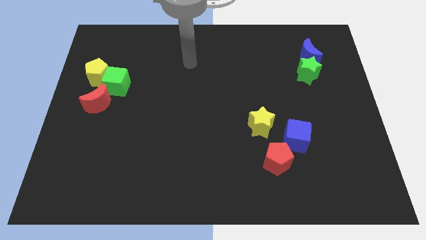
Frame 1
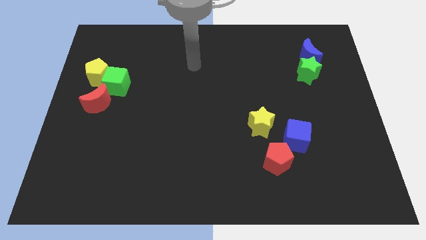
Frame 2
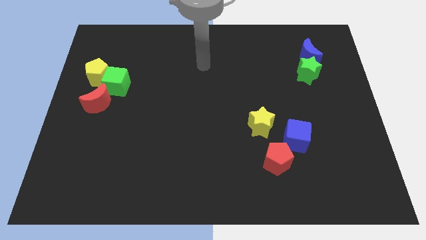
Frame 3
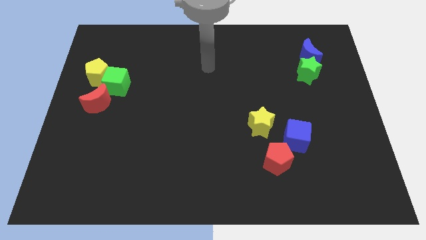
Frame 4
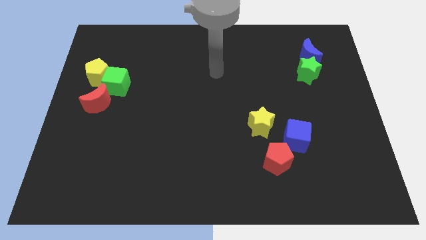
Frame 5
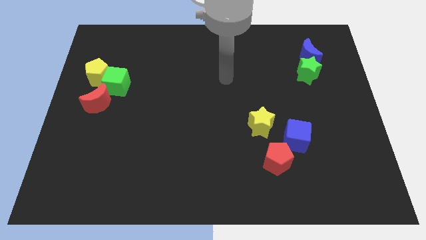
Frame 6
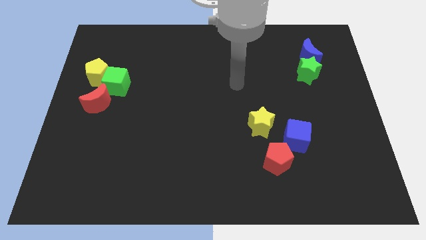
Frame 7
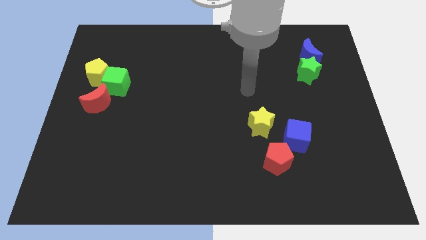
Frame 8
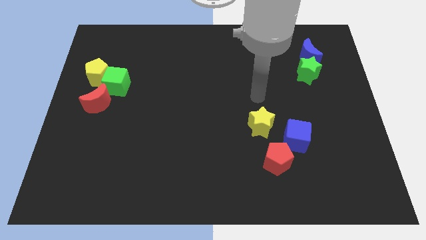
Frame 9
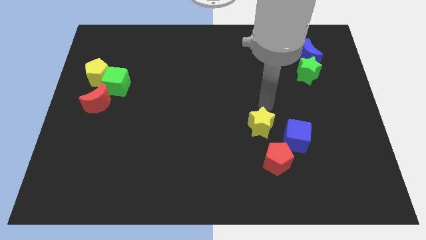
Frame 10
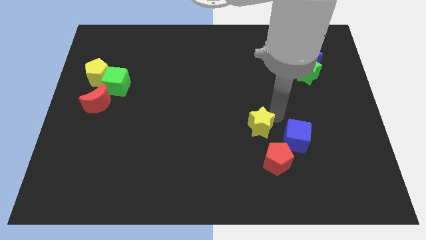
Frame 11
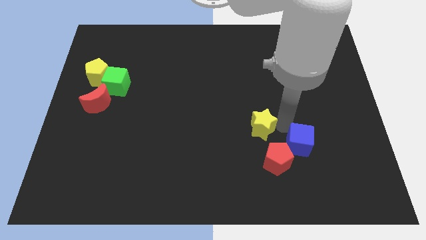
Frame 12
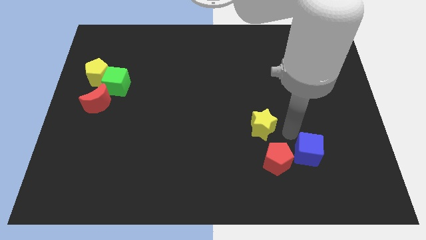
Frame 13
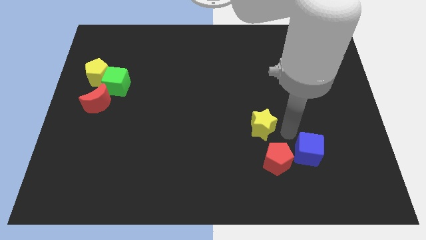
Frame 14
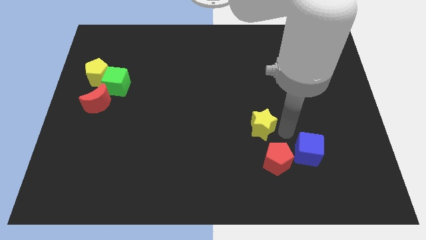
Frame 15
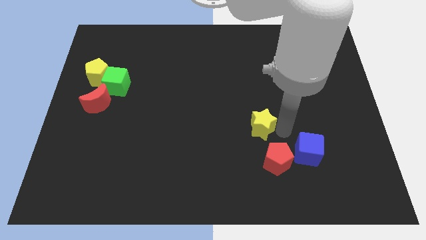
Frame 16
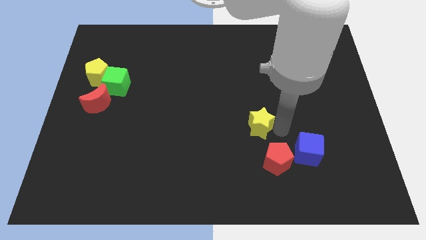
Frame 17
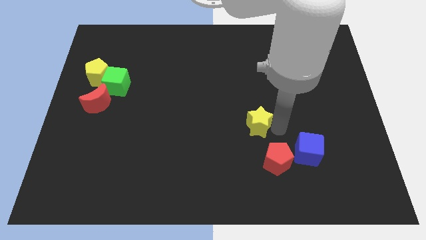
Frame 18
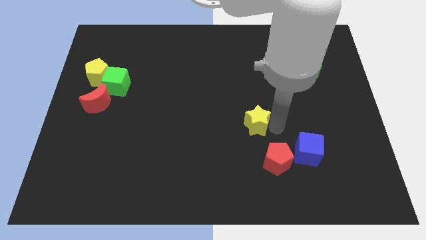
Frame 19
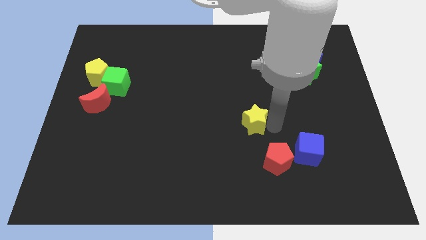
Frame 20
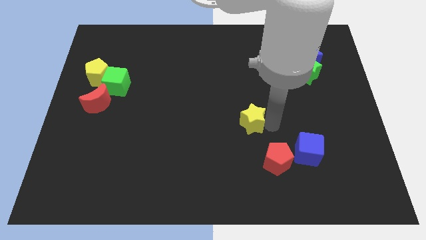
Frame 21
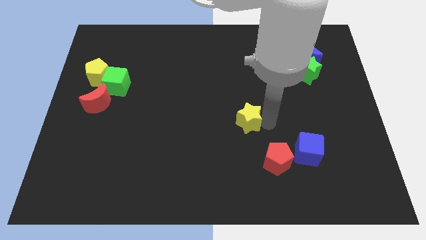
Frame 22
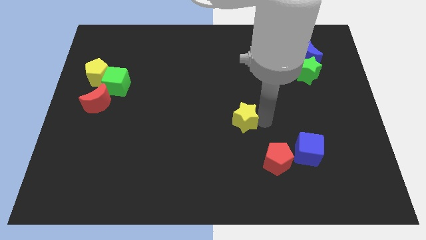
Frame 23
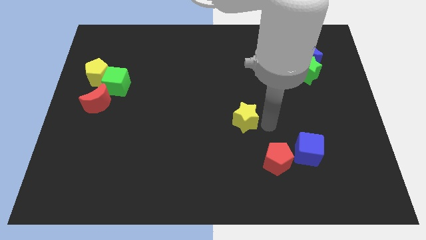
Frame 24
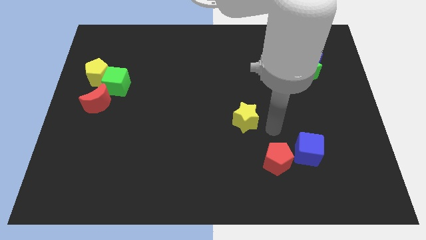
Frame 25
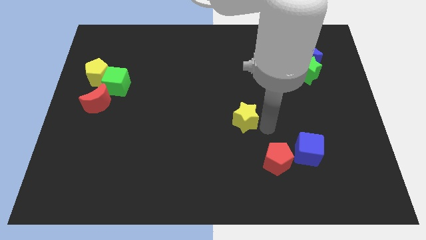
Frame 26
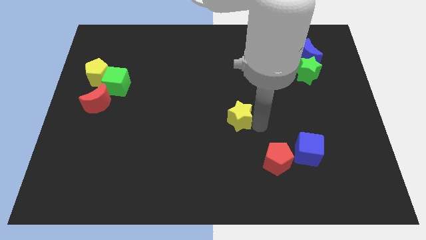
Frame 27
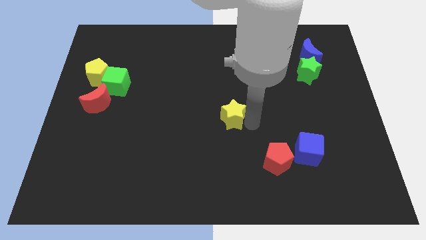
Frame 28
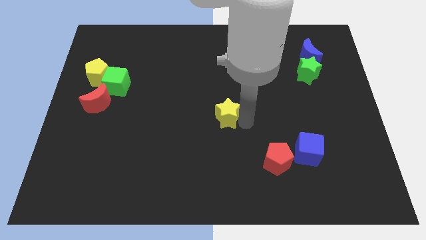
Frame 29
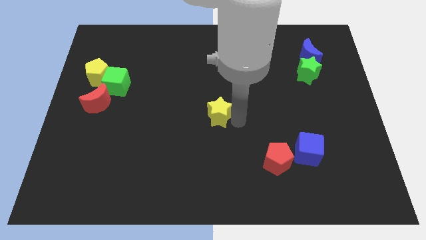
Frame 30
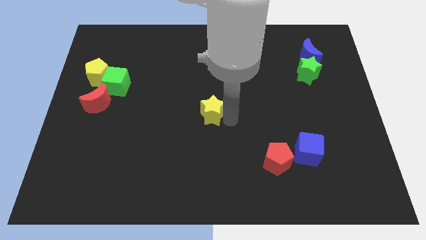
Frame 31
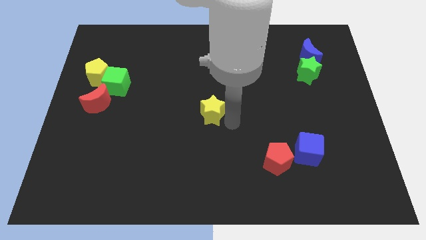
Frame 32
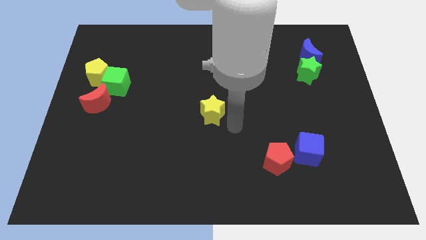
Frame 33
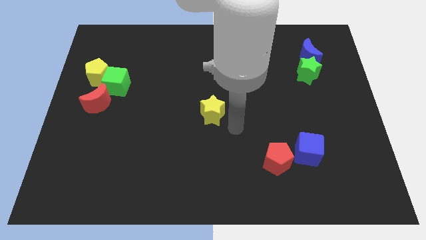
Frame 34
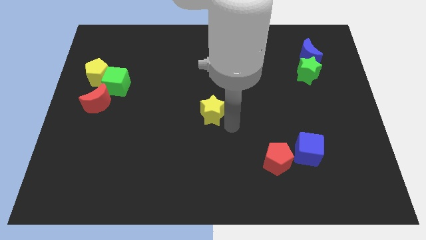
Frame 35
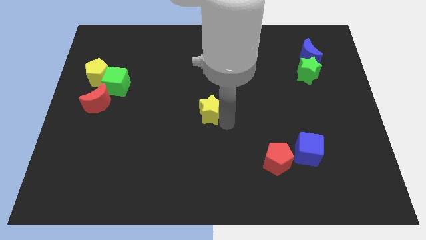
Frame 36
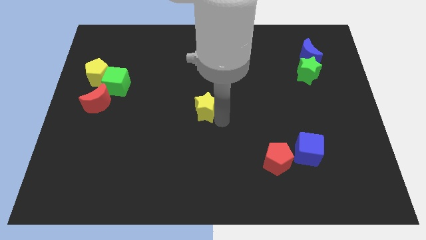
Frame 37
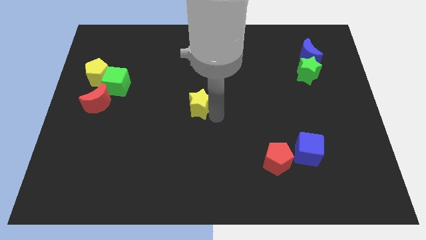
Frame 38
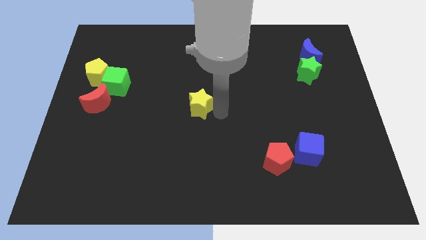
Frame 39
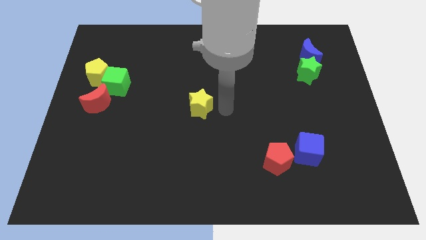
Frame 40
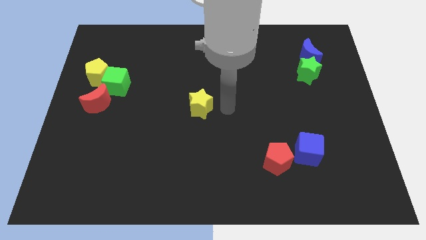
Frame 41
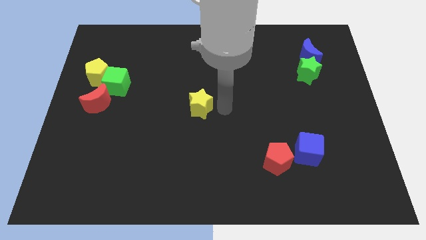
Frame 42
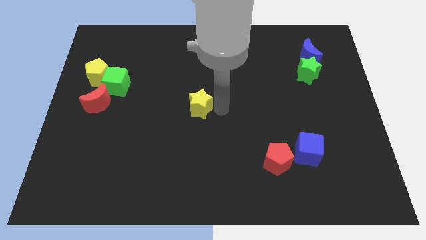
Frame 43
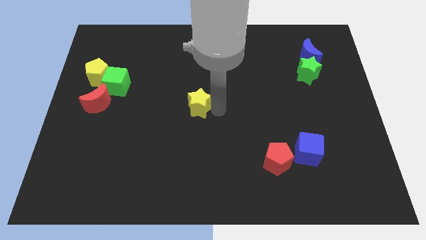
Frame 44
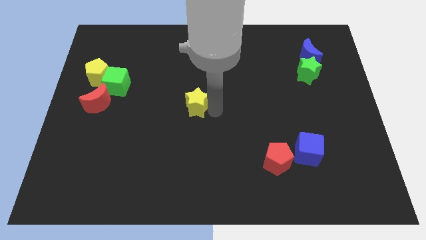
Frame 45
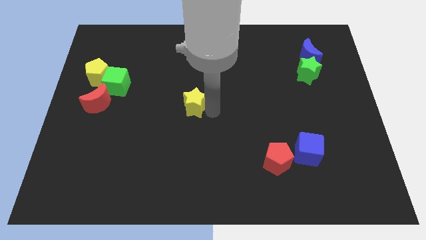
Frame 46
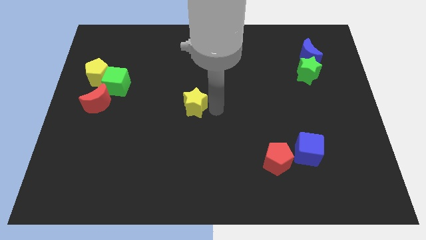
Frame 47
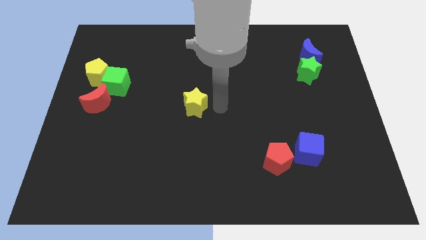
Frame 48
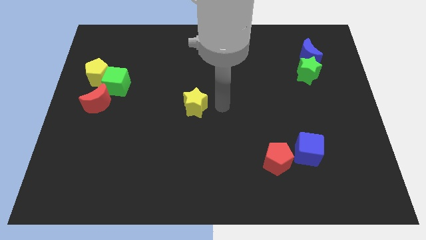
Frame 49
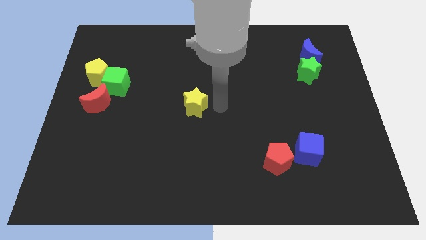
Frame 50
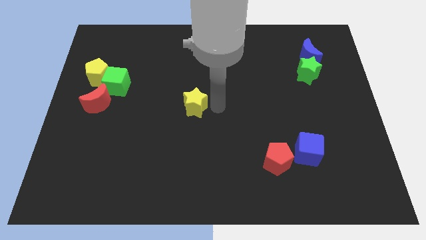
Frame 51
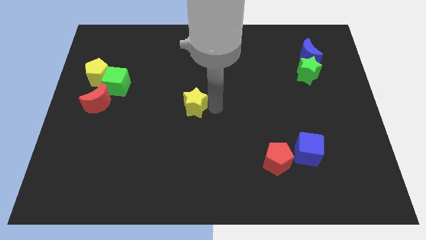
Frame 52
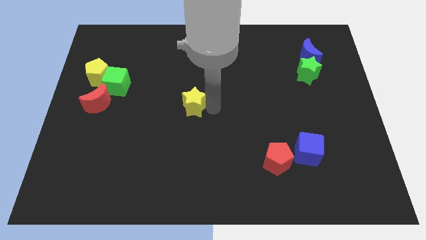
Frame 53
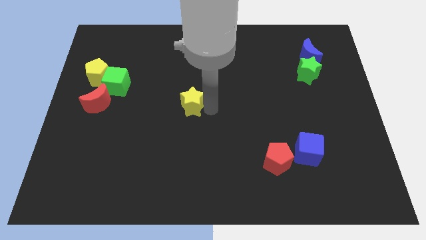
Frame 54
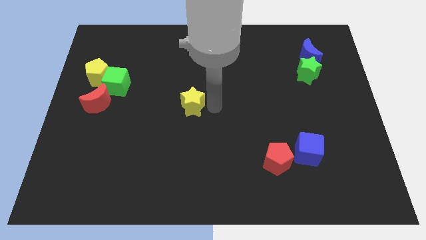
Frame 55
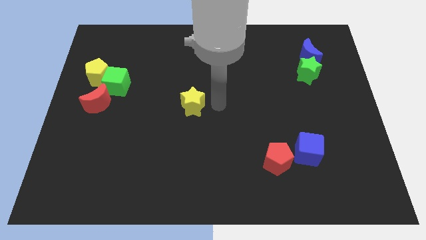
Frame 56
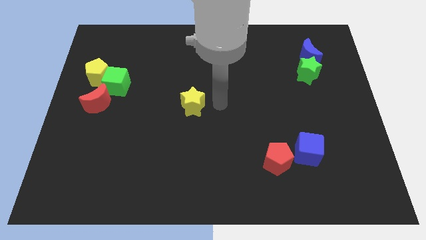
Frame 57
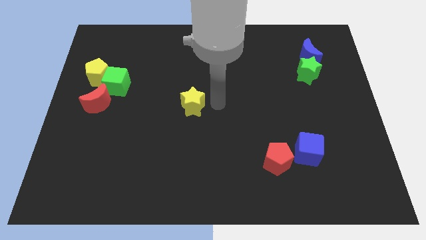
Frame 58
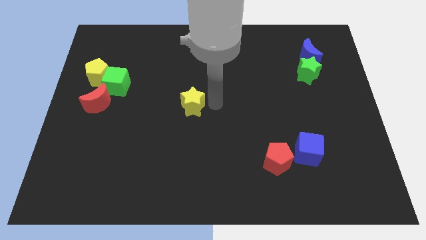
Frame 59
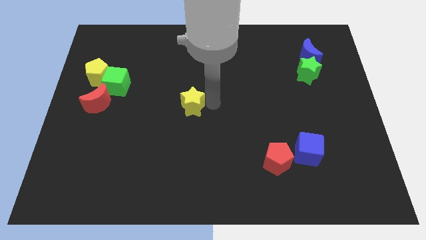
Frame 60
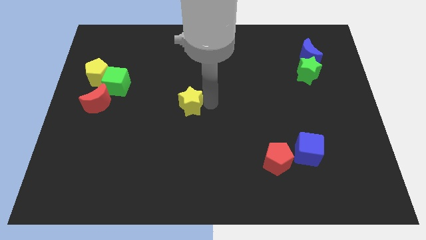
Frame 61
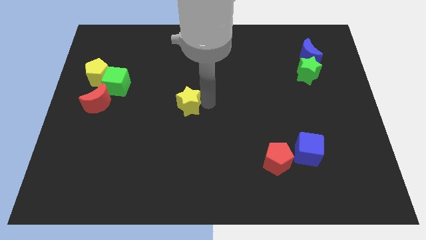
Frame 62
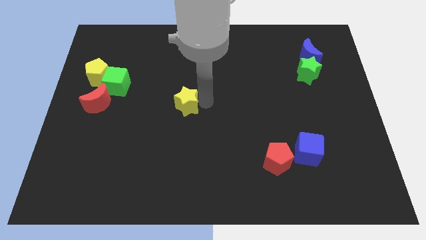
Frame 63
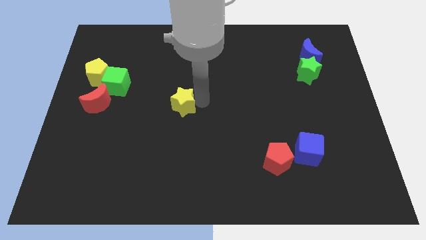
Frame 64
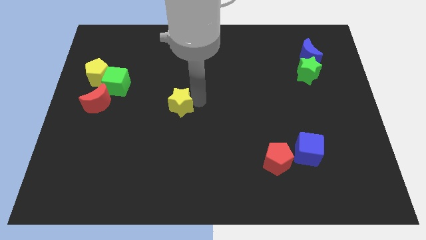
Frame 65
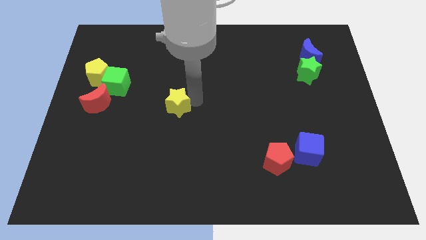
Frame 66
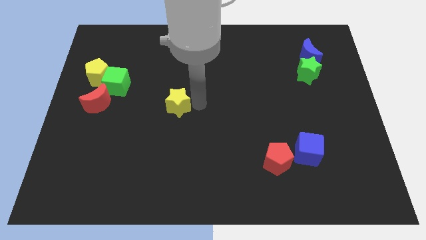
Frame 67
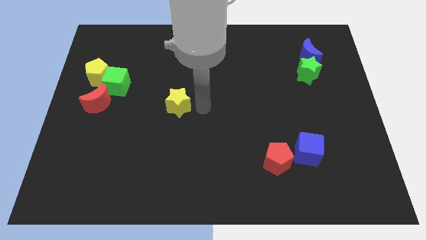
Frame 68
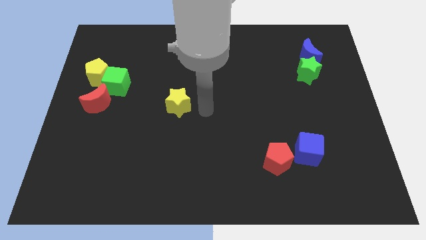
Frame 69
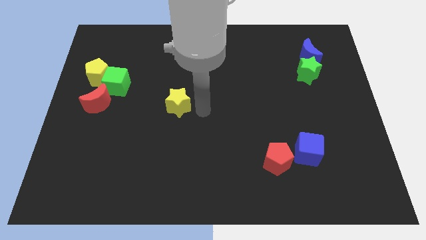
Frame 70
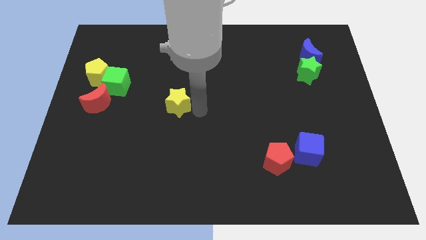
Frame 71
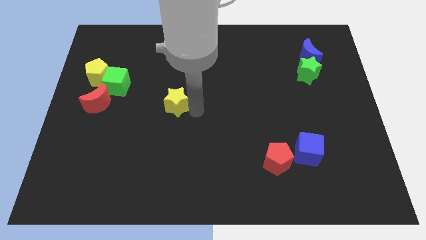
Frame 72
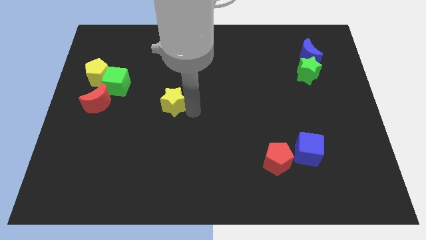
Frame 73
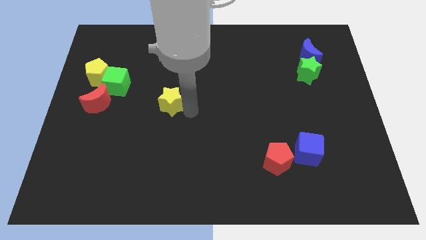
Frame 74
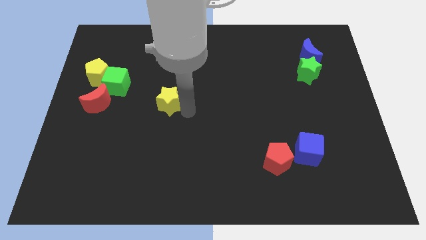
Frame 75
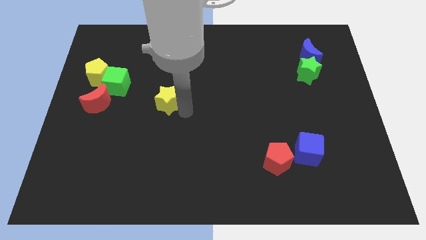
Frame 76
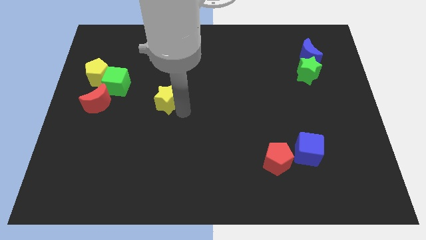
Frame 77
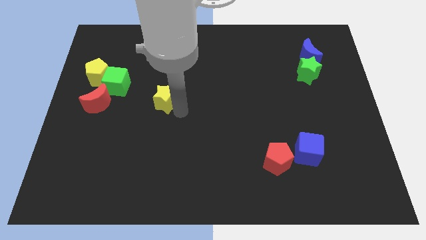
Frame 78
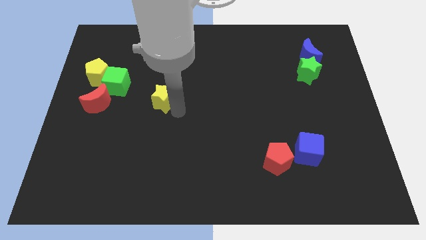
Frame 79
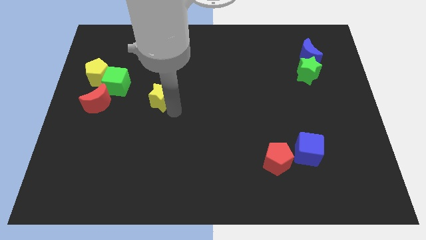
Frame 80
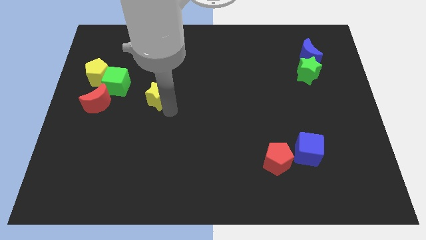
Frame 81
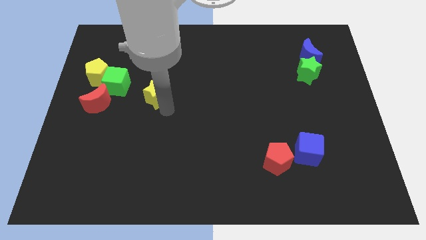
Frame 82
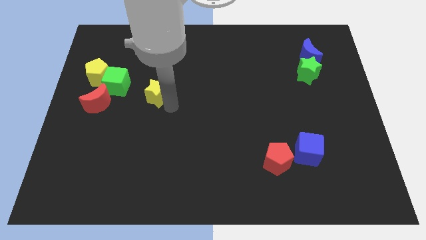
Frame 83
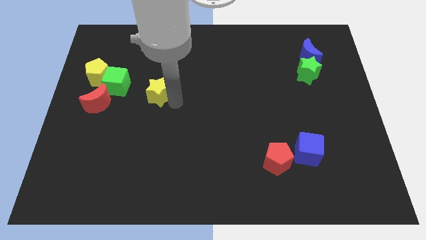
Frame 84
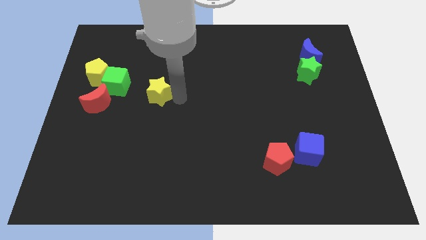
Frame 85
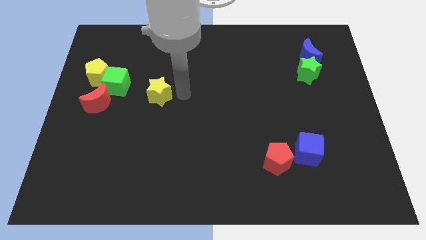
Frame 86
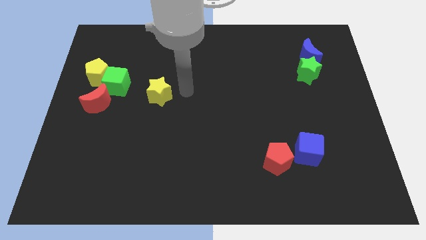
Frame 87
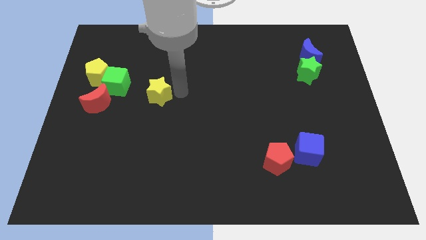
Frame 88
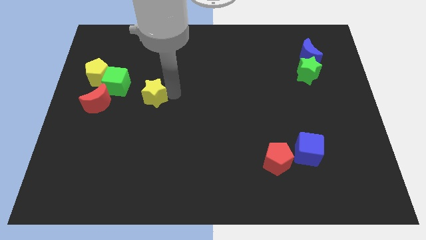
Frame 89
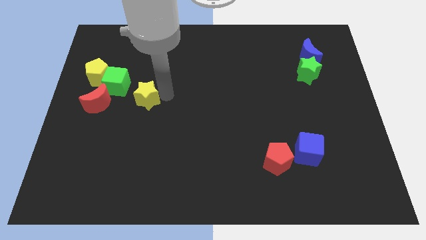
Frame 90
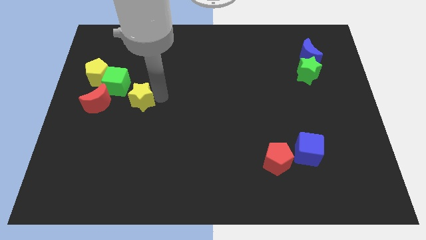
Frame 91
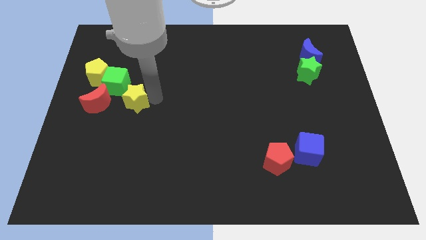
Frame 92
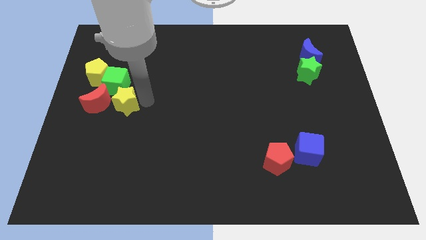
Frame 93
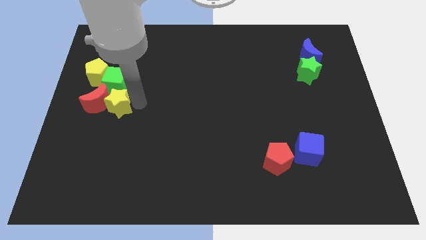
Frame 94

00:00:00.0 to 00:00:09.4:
put the yellow star close to the red moon
